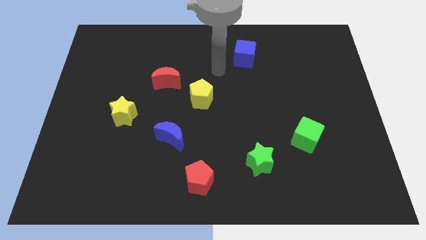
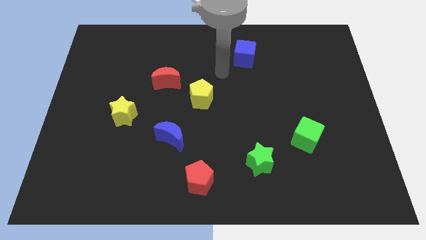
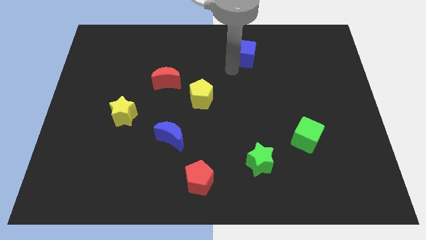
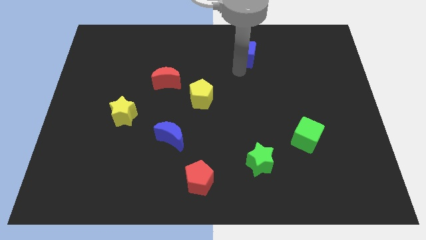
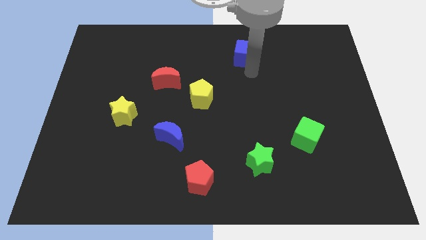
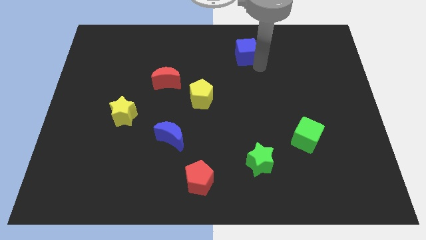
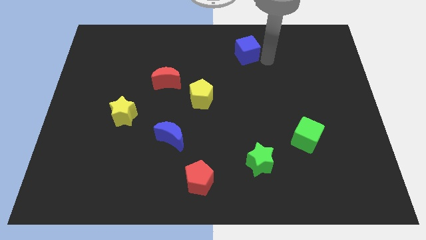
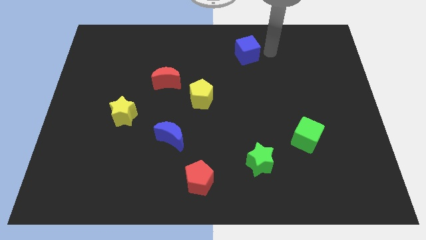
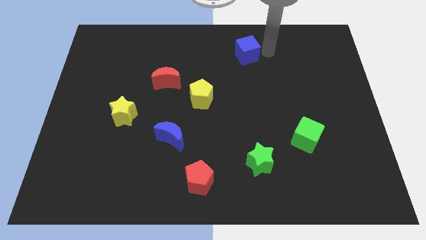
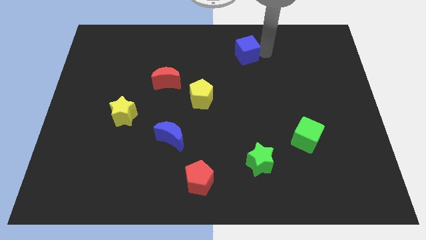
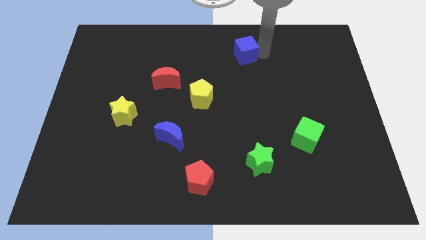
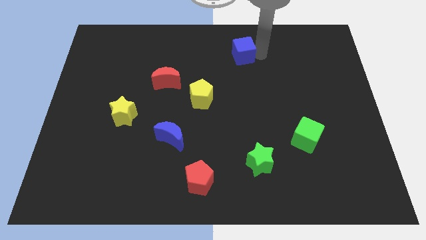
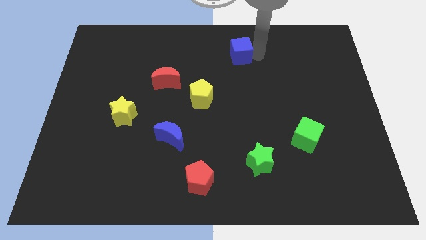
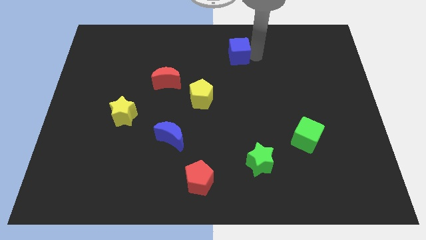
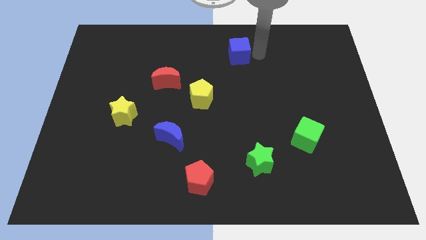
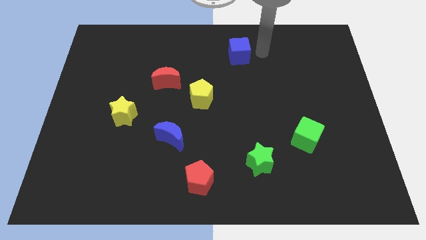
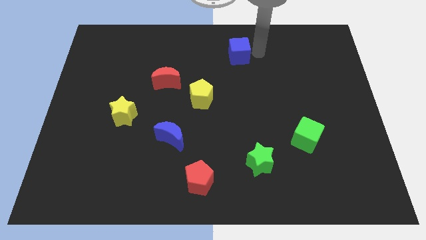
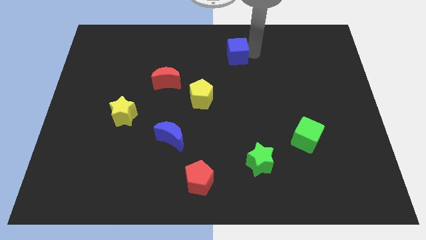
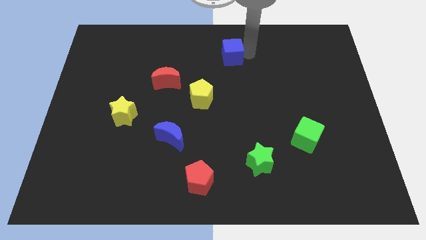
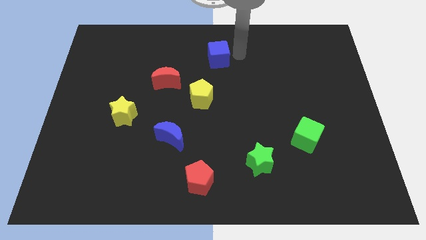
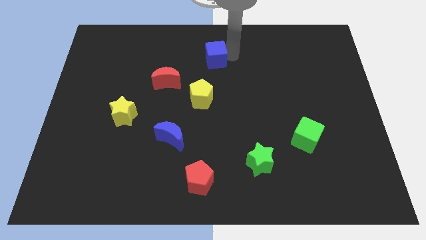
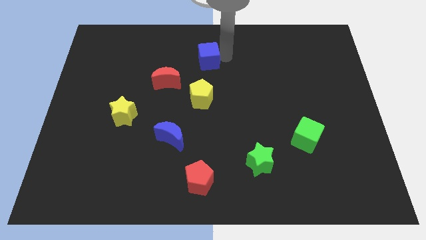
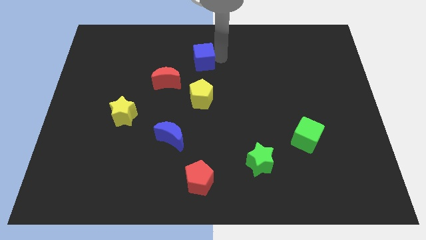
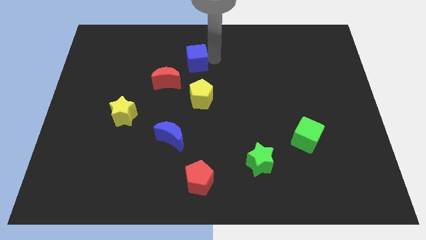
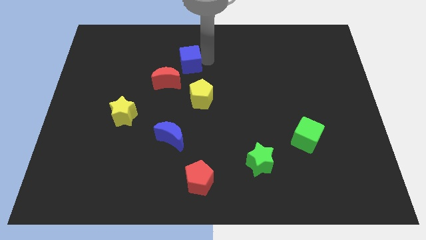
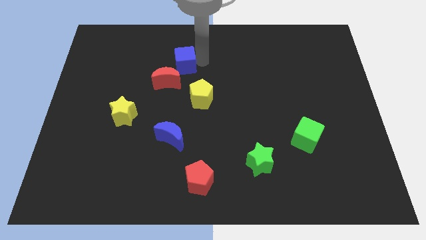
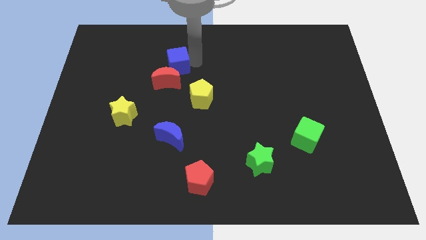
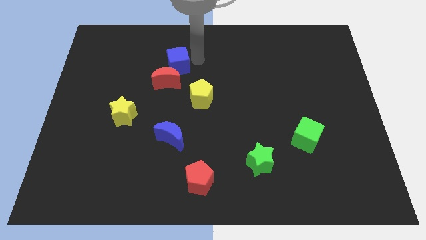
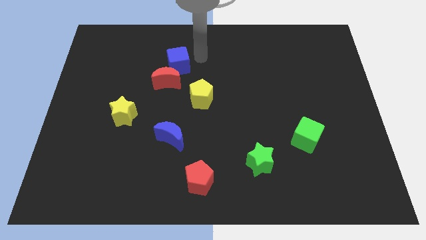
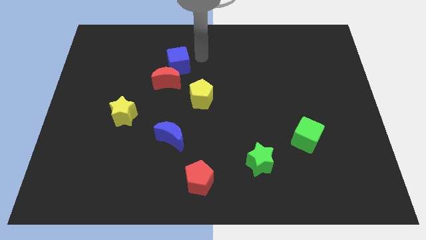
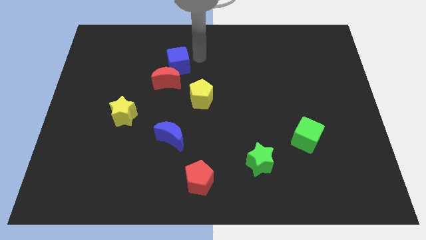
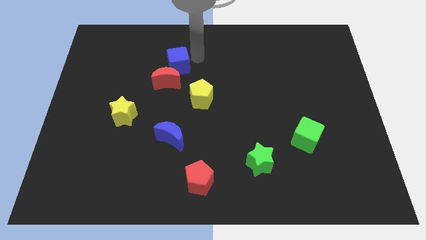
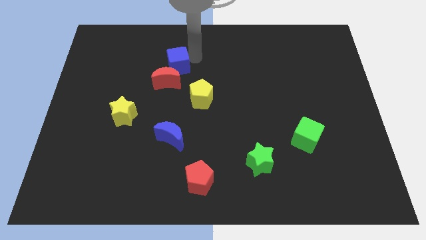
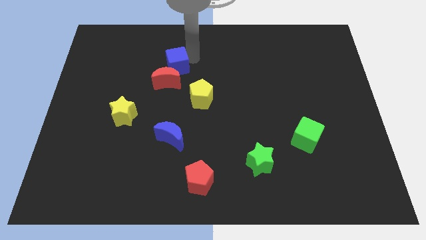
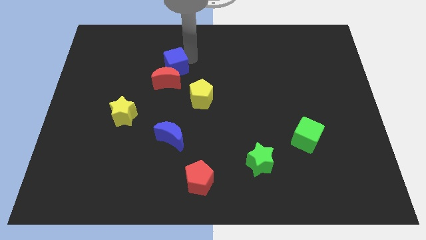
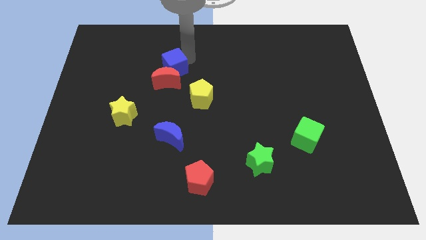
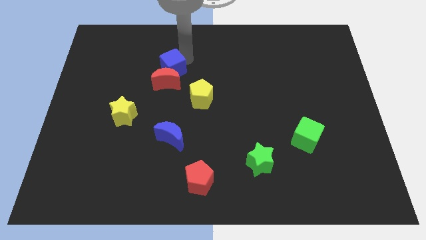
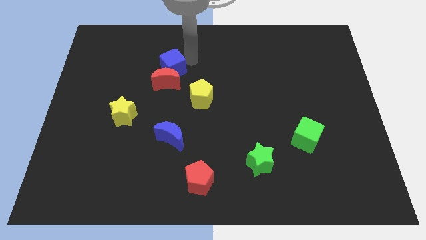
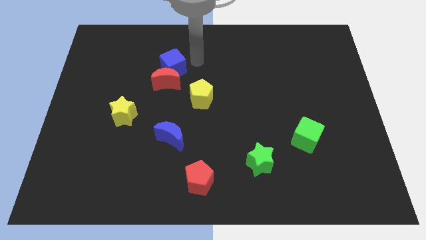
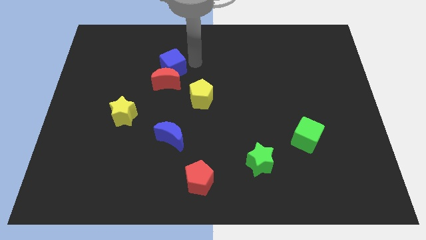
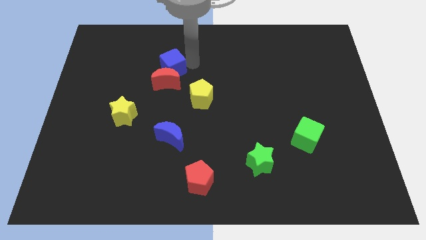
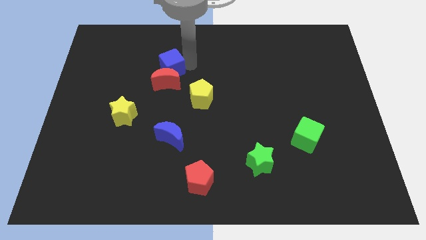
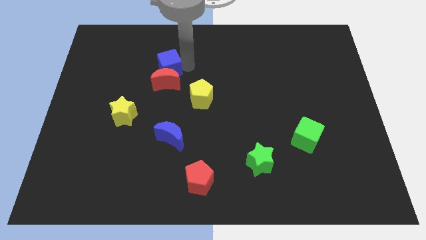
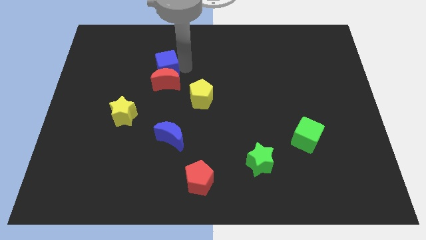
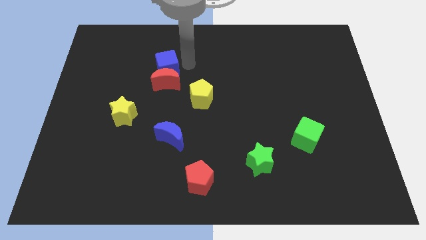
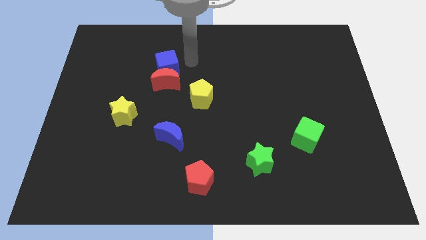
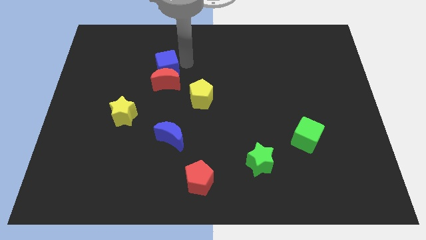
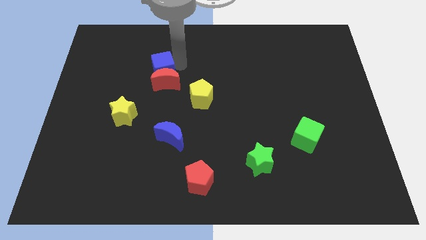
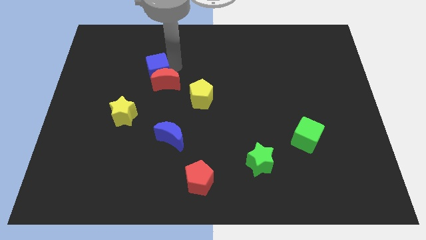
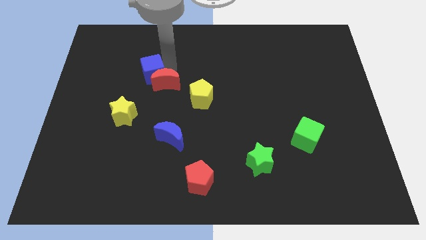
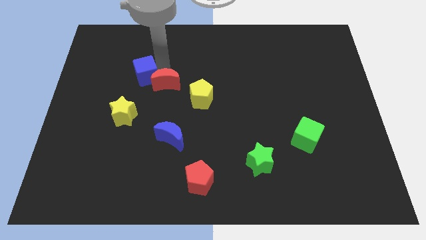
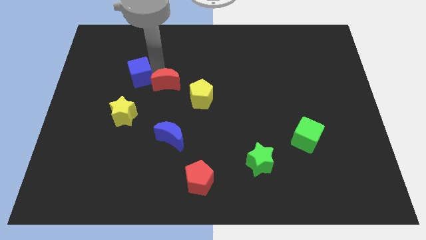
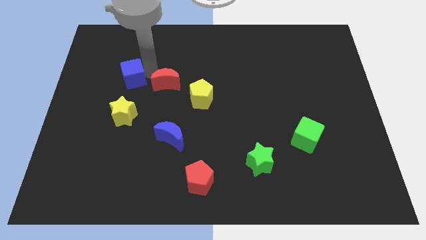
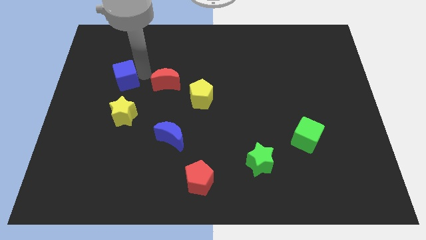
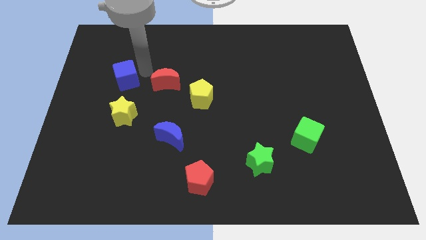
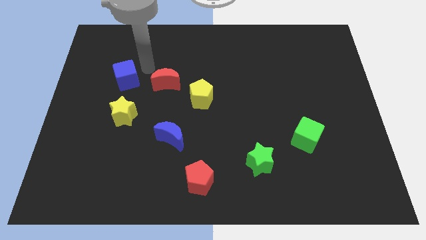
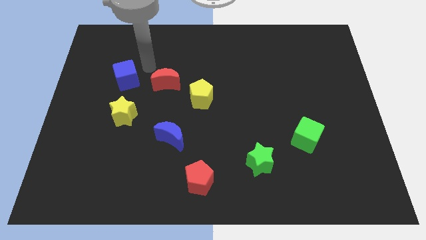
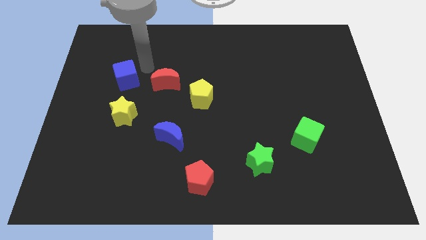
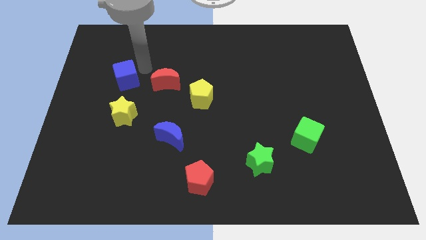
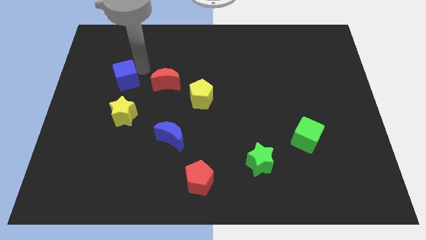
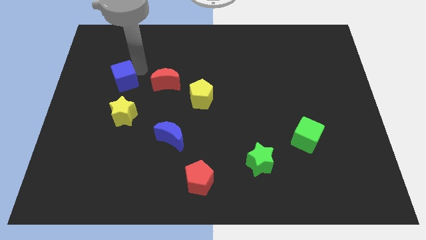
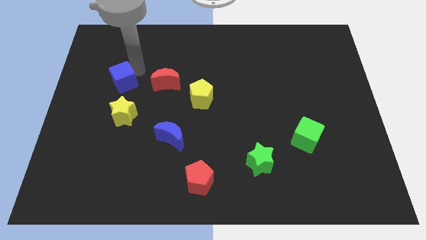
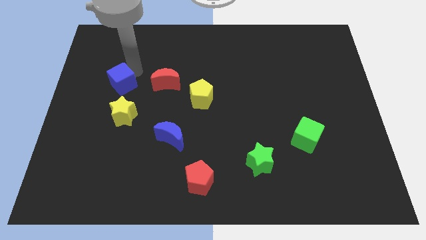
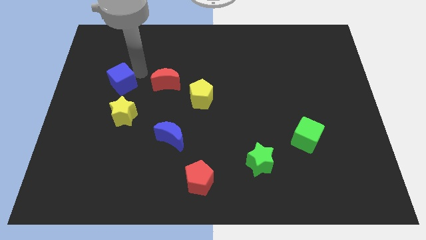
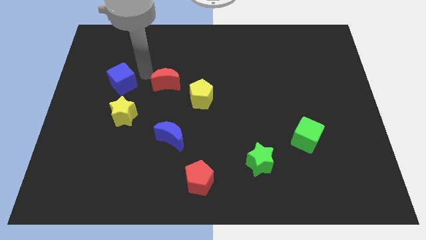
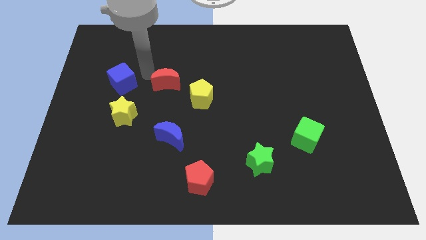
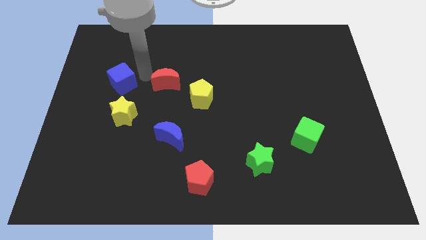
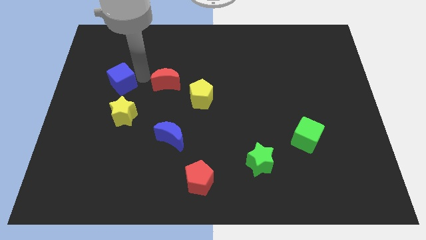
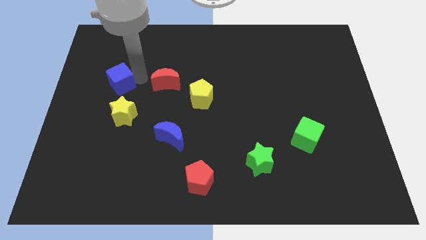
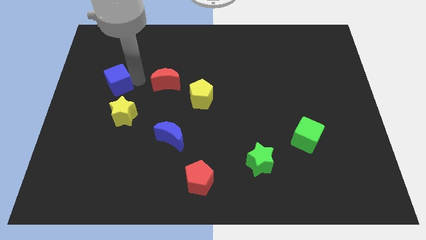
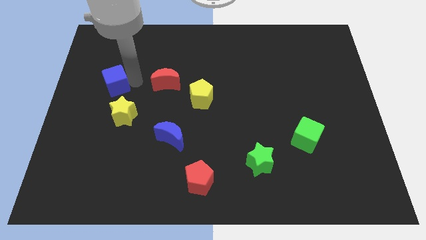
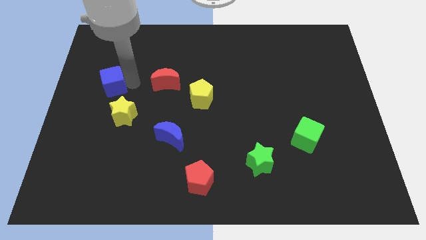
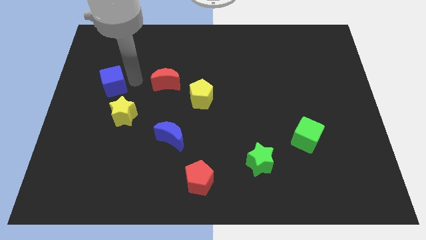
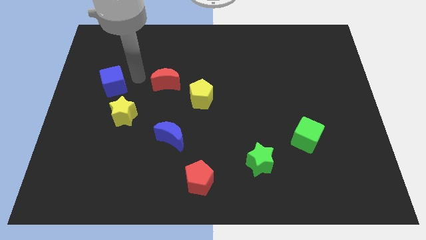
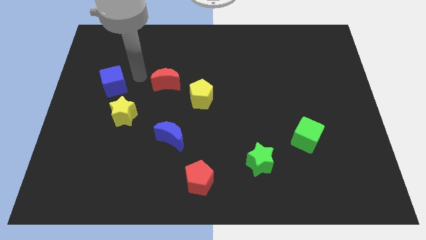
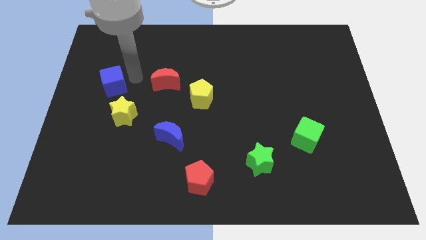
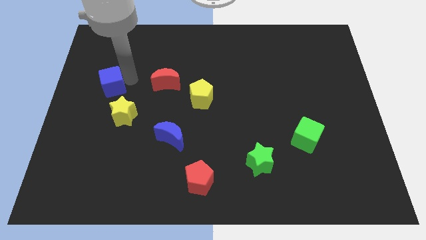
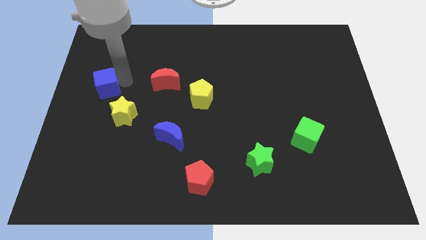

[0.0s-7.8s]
put the blue cube to the left side
